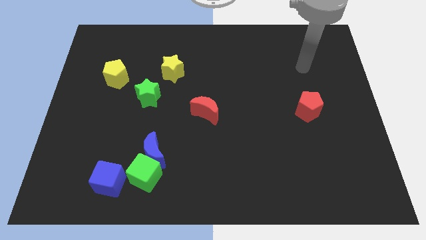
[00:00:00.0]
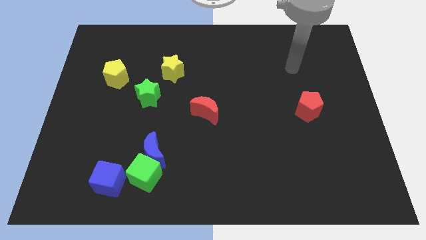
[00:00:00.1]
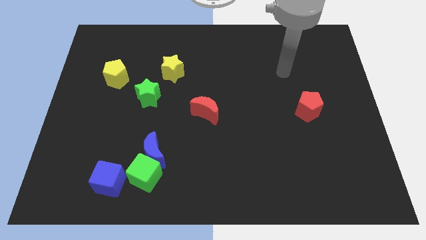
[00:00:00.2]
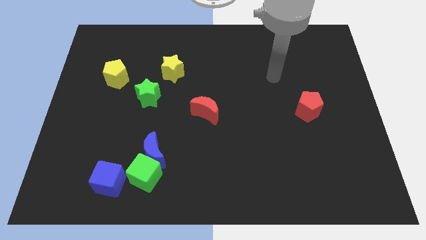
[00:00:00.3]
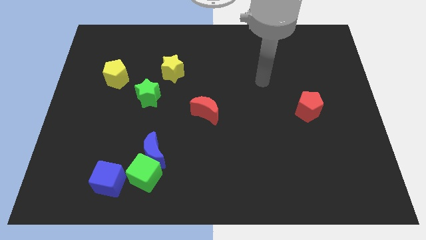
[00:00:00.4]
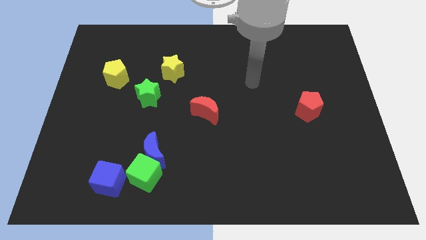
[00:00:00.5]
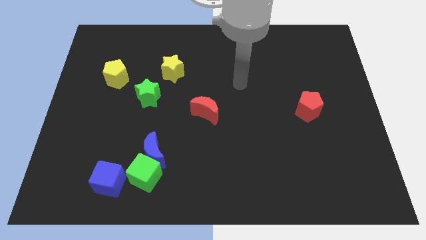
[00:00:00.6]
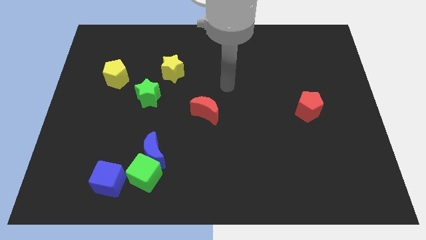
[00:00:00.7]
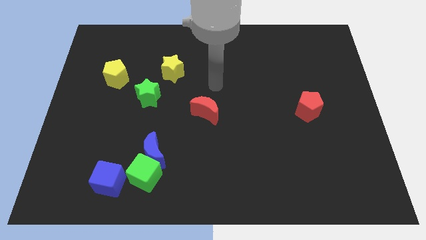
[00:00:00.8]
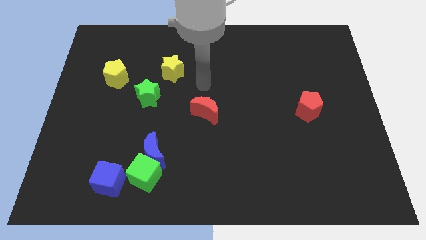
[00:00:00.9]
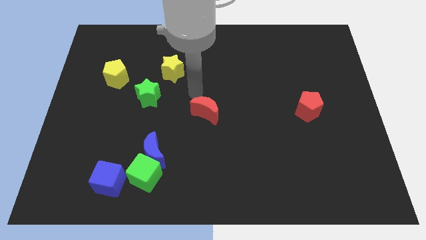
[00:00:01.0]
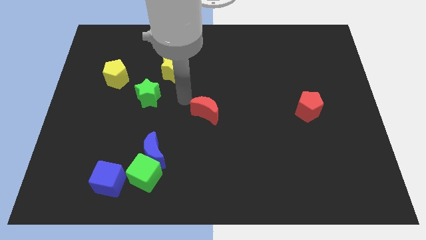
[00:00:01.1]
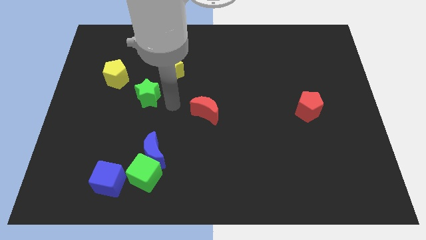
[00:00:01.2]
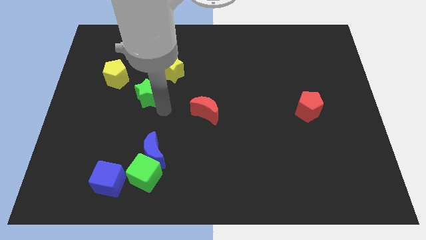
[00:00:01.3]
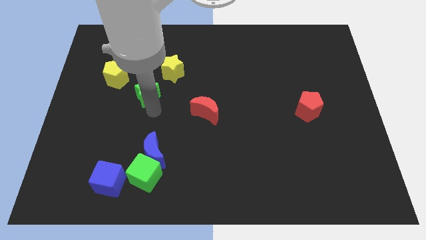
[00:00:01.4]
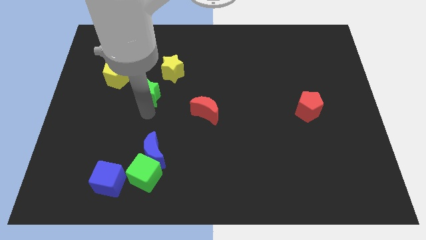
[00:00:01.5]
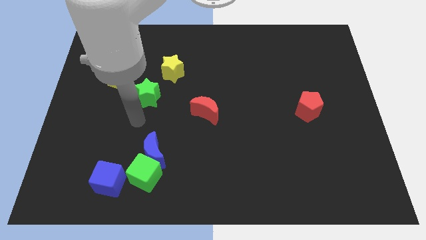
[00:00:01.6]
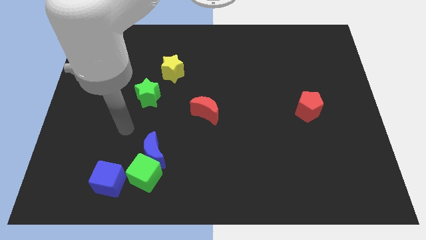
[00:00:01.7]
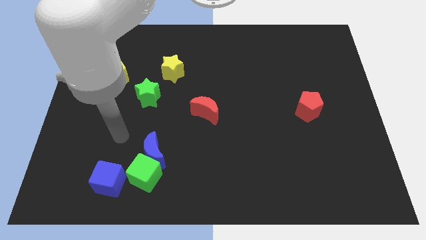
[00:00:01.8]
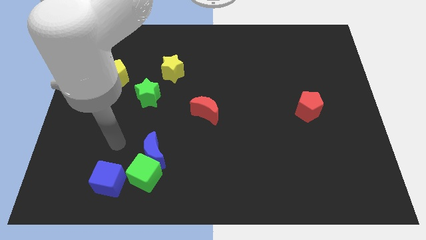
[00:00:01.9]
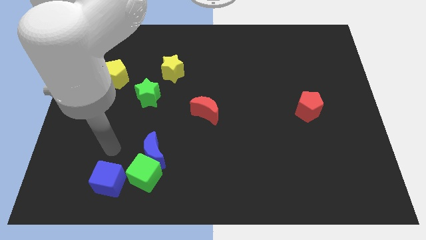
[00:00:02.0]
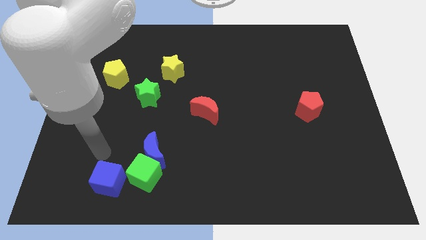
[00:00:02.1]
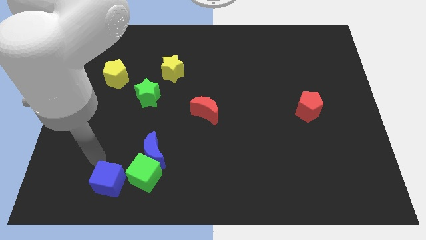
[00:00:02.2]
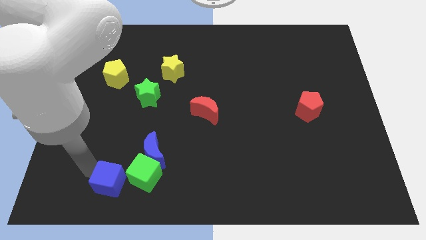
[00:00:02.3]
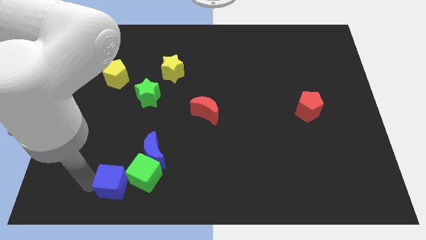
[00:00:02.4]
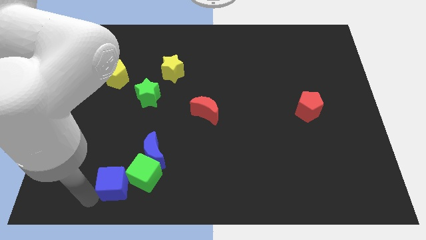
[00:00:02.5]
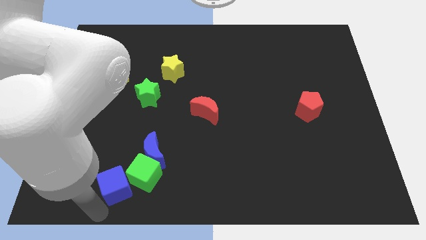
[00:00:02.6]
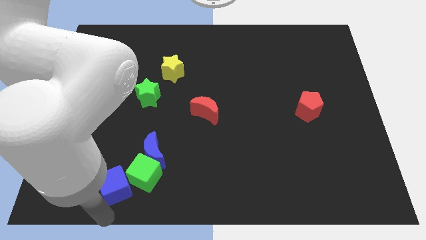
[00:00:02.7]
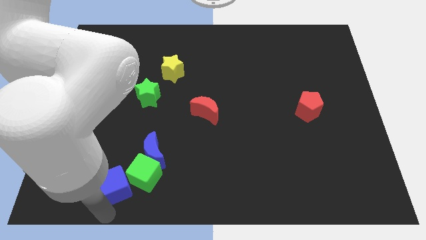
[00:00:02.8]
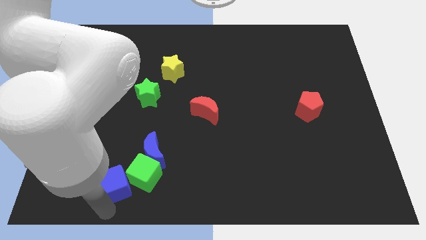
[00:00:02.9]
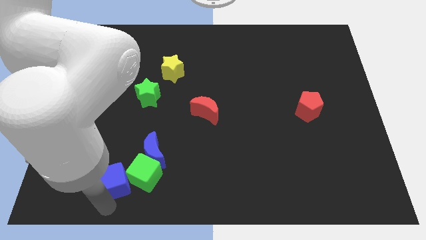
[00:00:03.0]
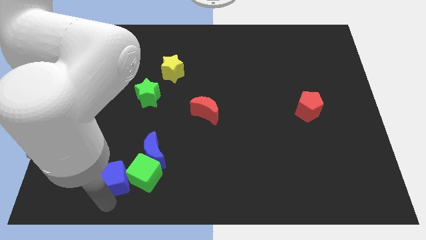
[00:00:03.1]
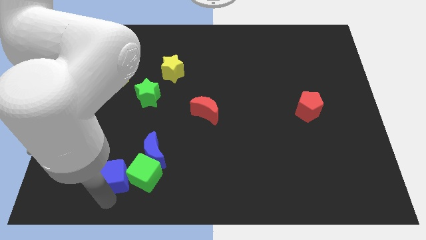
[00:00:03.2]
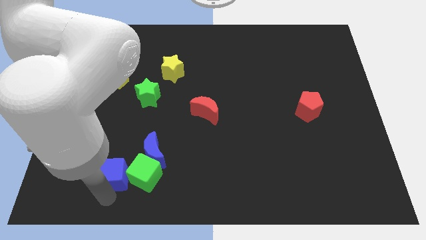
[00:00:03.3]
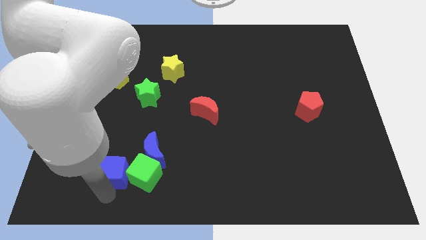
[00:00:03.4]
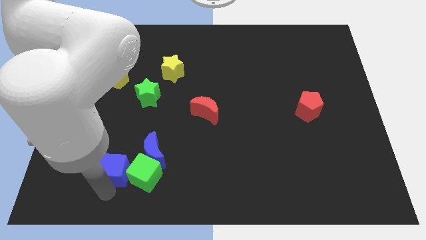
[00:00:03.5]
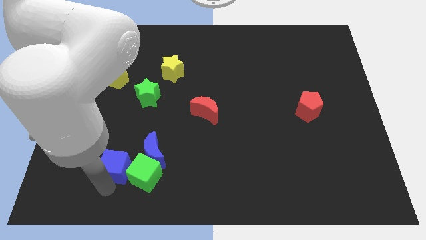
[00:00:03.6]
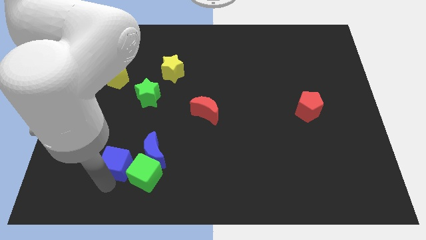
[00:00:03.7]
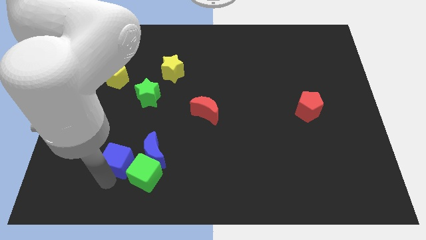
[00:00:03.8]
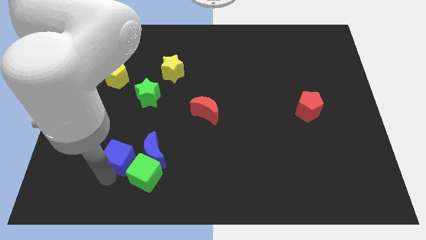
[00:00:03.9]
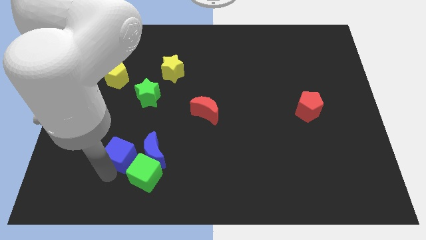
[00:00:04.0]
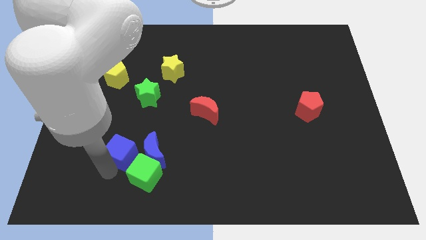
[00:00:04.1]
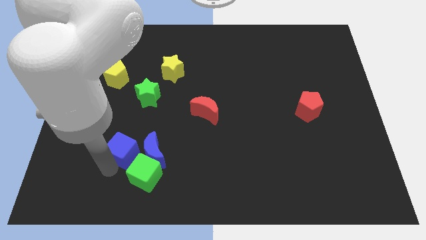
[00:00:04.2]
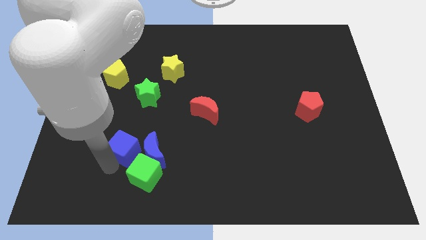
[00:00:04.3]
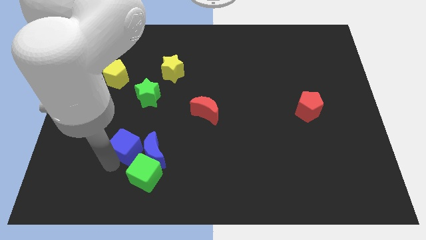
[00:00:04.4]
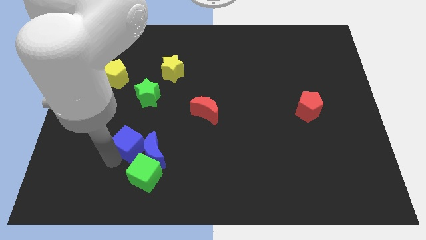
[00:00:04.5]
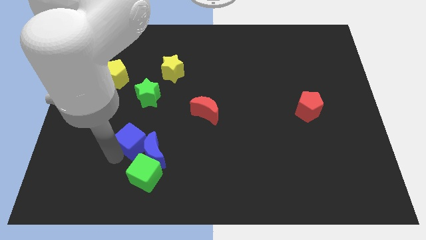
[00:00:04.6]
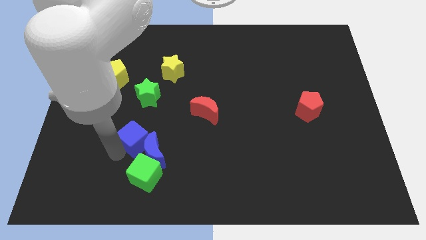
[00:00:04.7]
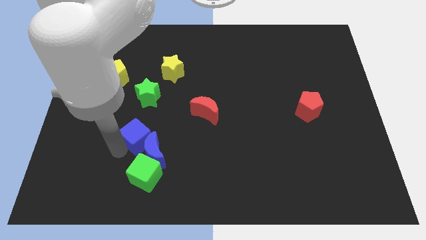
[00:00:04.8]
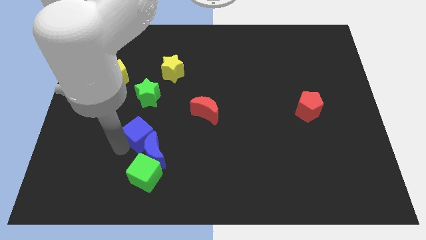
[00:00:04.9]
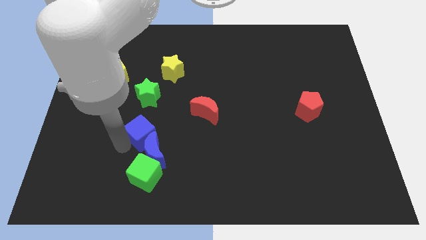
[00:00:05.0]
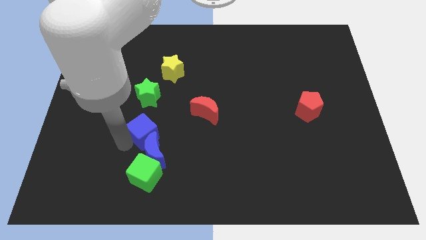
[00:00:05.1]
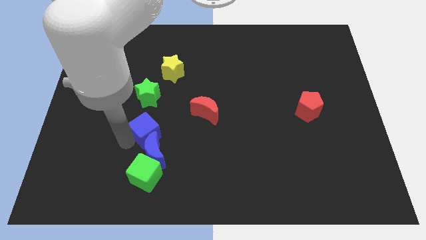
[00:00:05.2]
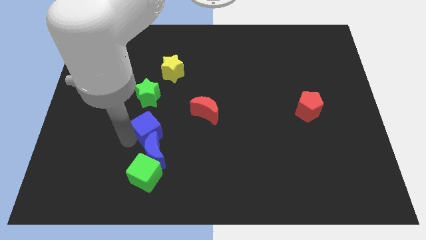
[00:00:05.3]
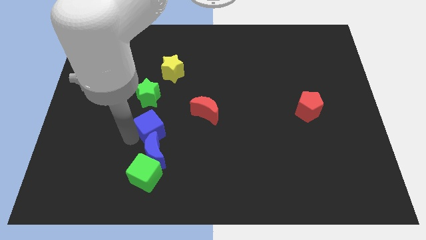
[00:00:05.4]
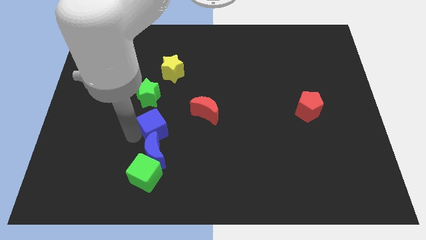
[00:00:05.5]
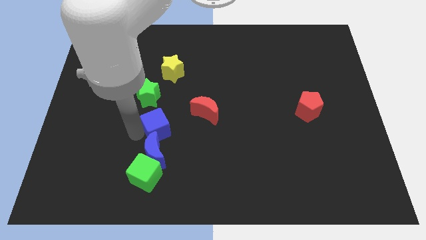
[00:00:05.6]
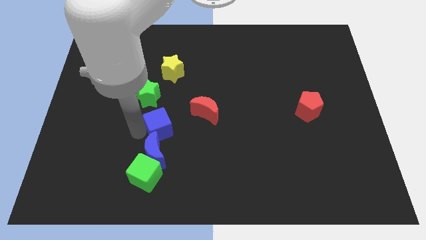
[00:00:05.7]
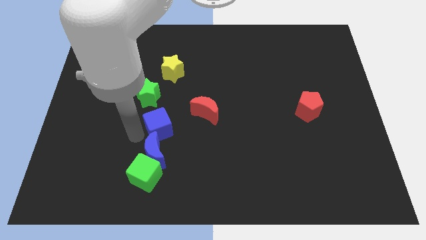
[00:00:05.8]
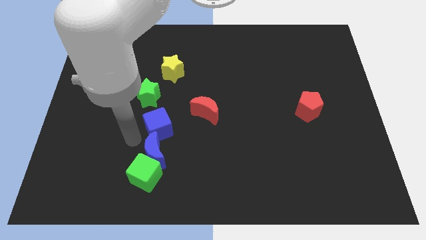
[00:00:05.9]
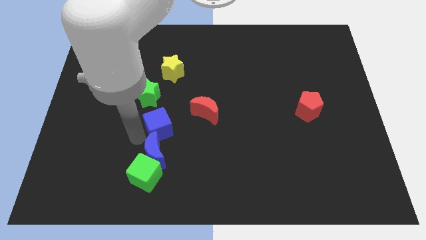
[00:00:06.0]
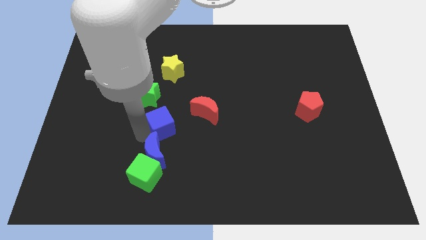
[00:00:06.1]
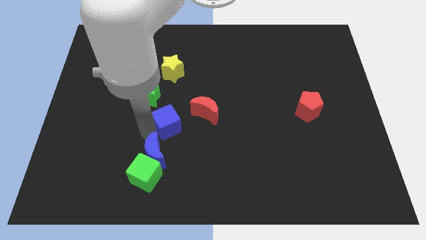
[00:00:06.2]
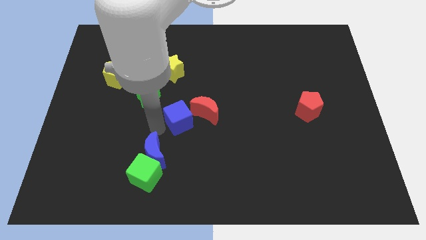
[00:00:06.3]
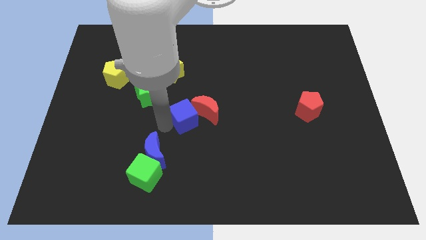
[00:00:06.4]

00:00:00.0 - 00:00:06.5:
slide the blue cube to the red moon

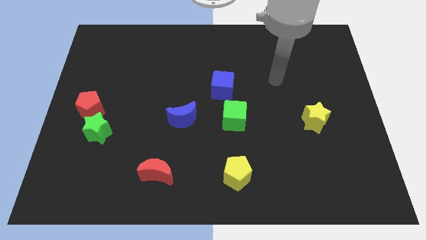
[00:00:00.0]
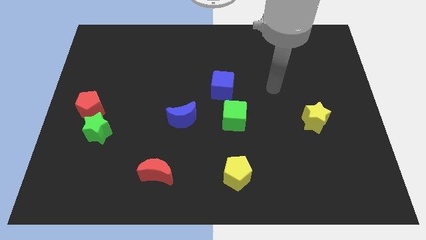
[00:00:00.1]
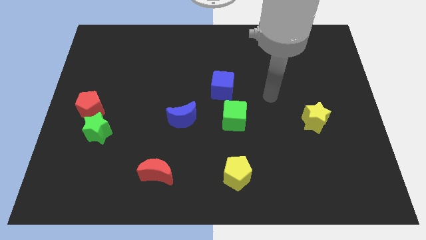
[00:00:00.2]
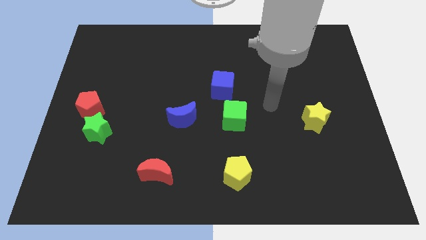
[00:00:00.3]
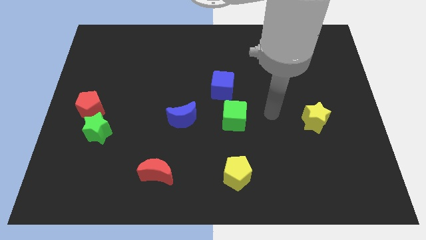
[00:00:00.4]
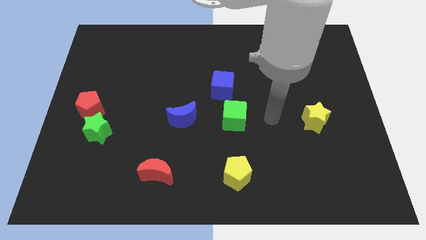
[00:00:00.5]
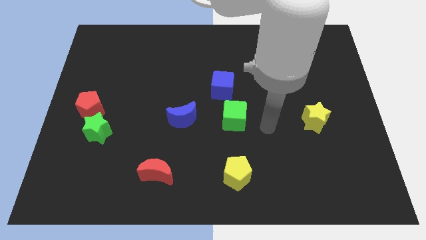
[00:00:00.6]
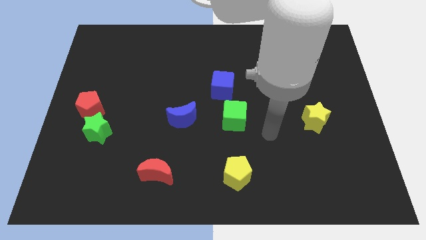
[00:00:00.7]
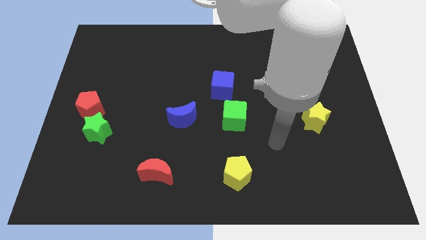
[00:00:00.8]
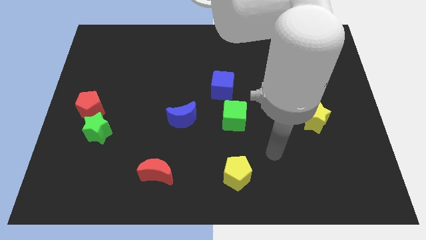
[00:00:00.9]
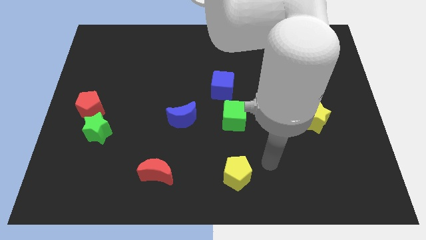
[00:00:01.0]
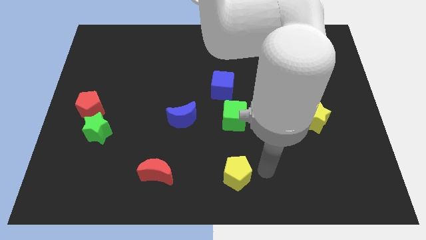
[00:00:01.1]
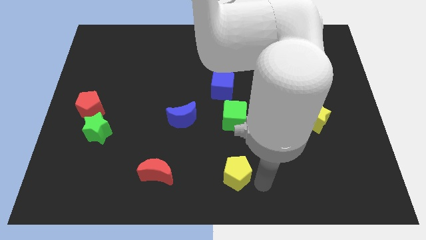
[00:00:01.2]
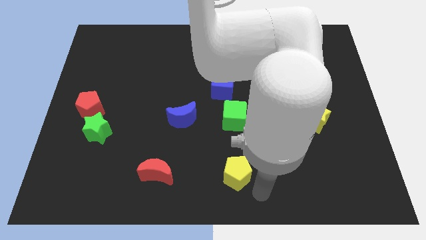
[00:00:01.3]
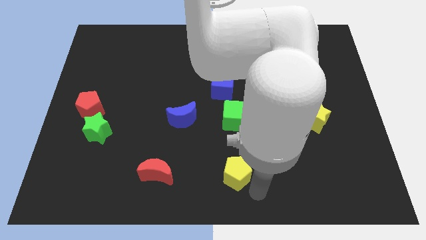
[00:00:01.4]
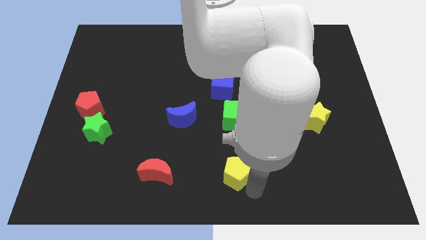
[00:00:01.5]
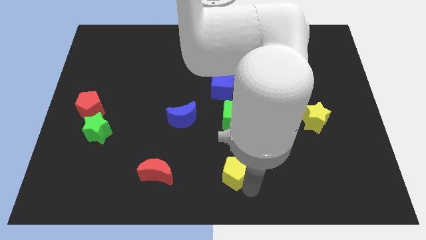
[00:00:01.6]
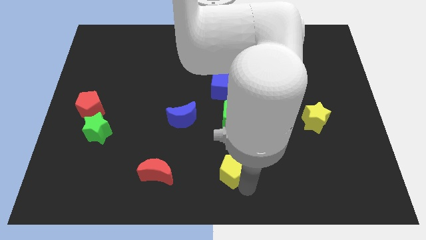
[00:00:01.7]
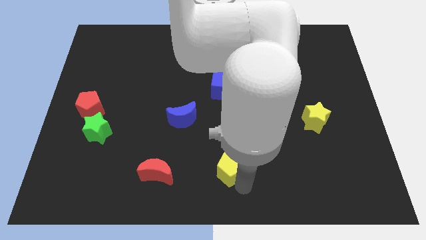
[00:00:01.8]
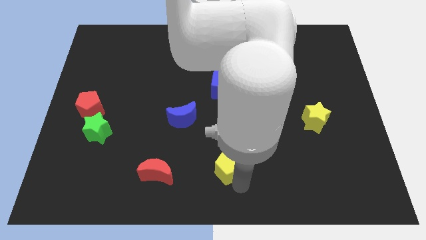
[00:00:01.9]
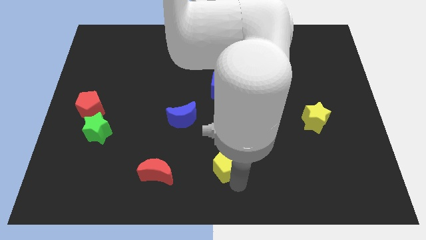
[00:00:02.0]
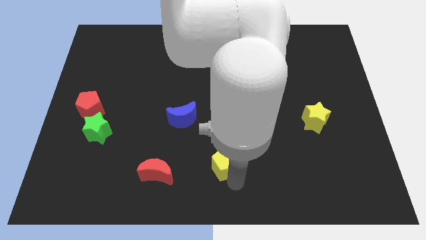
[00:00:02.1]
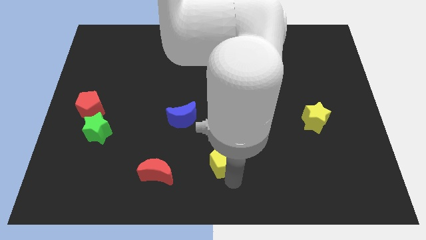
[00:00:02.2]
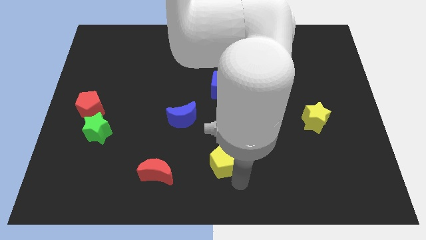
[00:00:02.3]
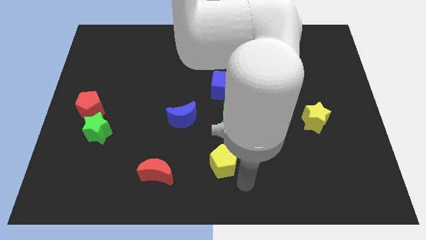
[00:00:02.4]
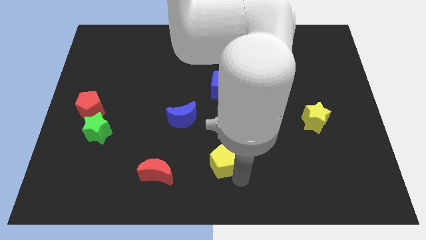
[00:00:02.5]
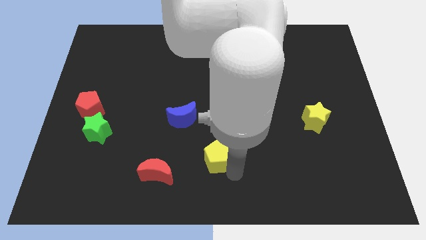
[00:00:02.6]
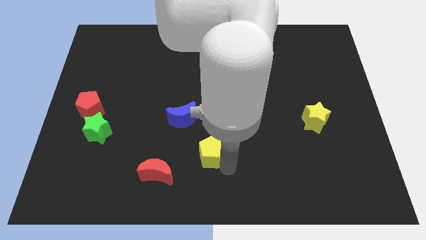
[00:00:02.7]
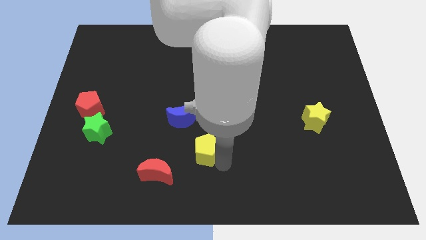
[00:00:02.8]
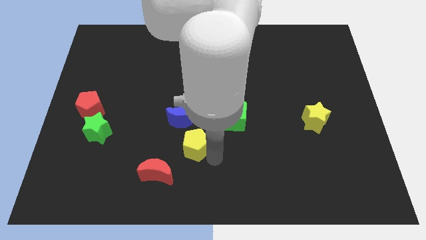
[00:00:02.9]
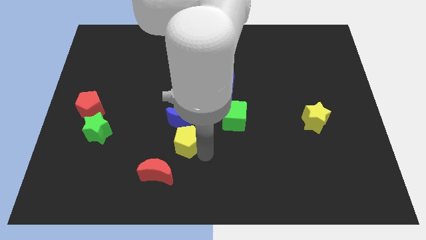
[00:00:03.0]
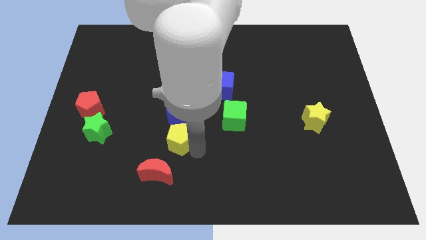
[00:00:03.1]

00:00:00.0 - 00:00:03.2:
push the yellow pentagon close to the blue moon
